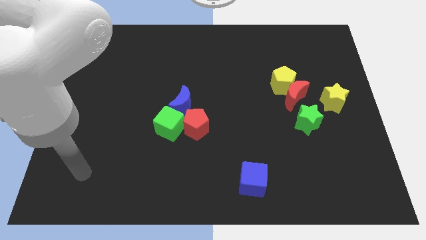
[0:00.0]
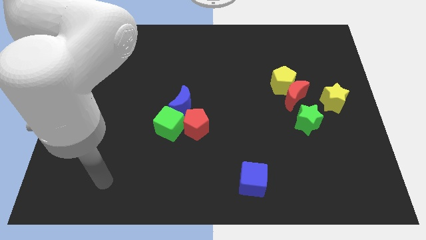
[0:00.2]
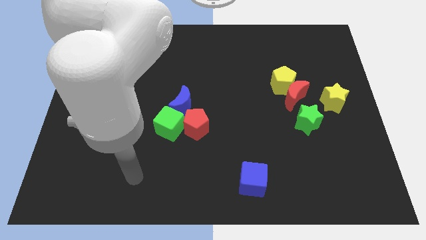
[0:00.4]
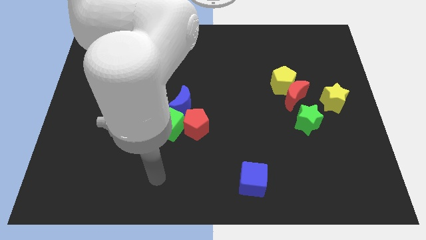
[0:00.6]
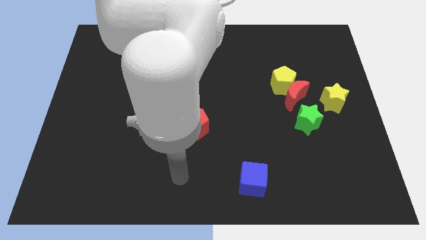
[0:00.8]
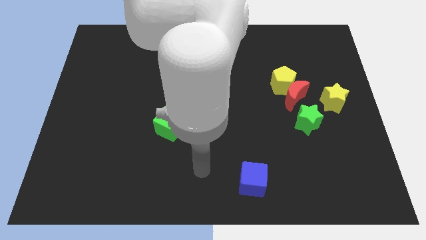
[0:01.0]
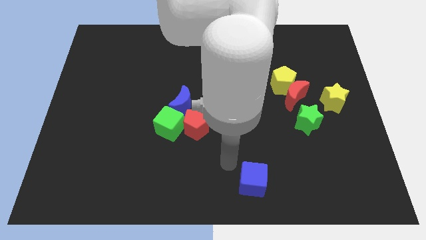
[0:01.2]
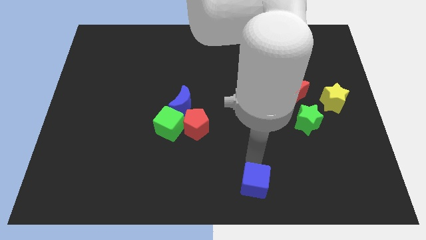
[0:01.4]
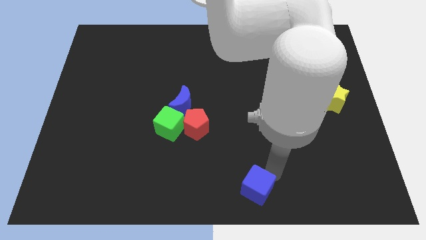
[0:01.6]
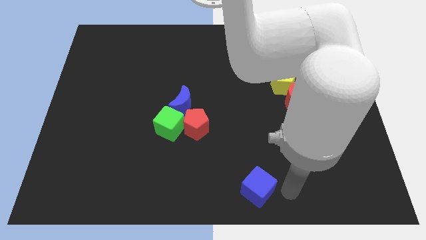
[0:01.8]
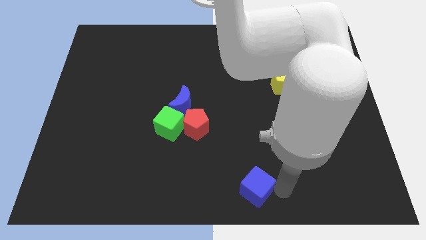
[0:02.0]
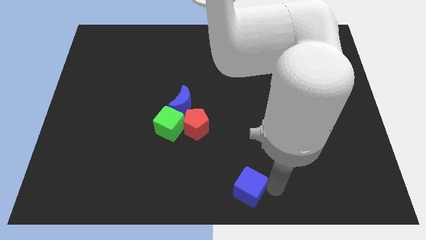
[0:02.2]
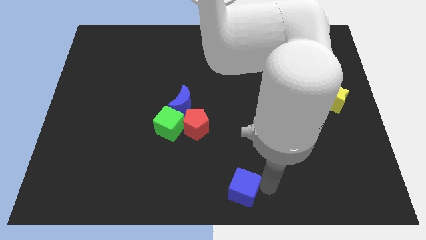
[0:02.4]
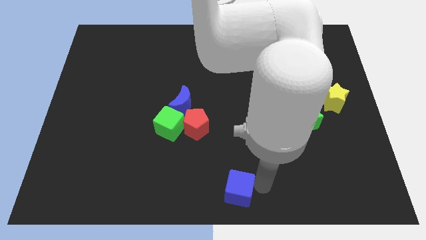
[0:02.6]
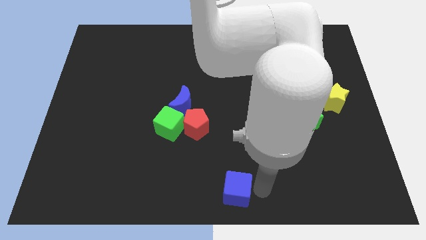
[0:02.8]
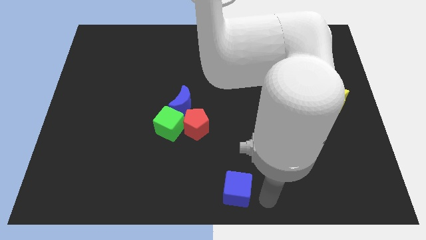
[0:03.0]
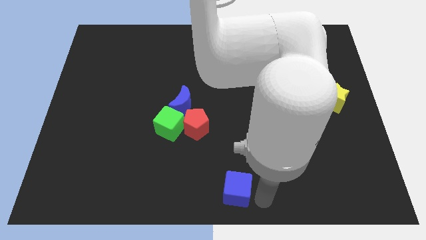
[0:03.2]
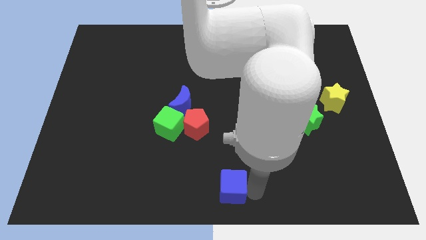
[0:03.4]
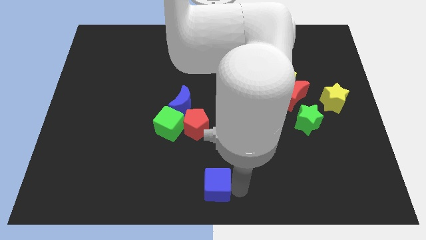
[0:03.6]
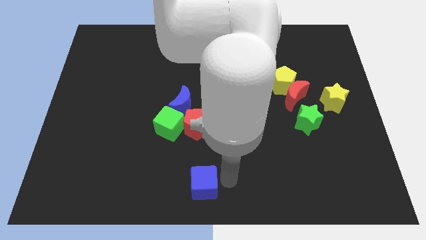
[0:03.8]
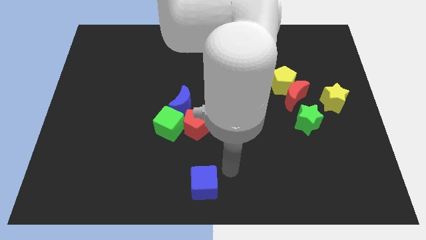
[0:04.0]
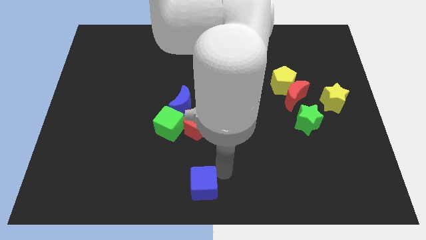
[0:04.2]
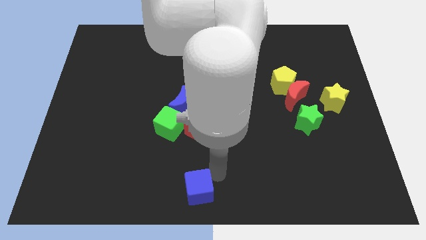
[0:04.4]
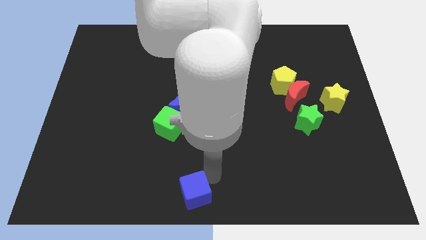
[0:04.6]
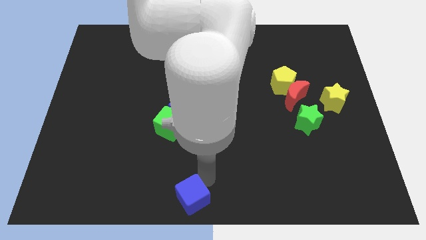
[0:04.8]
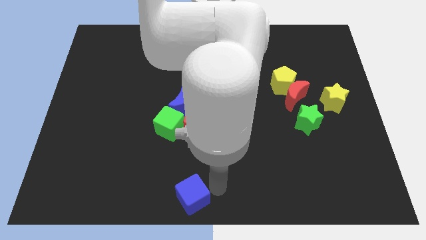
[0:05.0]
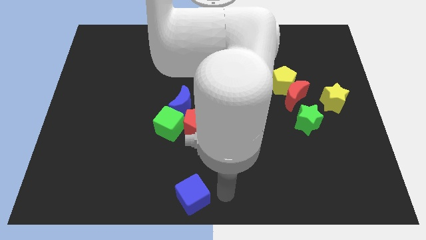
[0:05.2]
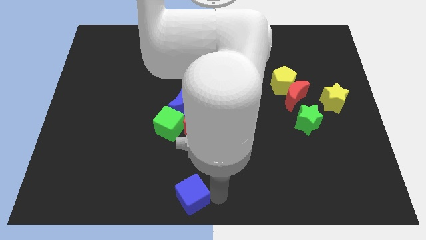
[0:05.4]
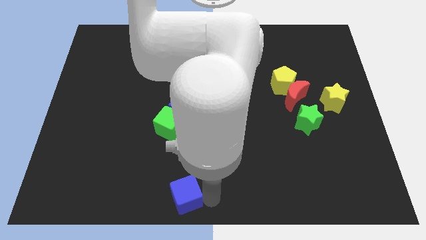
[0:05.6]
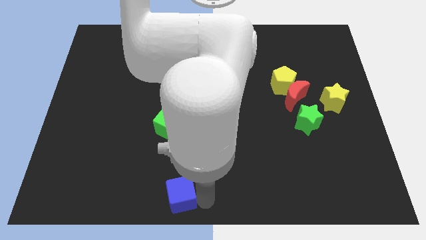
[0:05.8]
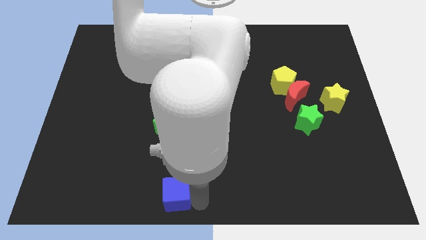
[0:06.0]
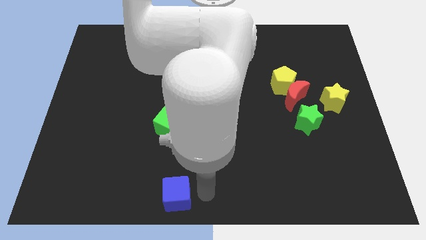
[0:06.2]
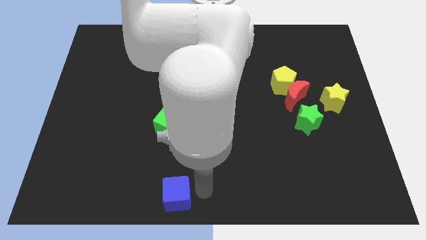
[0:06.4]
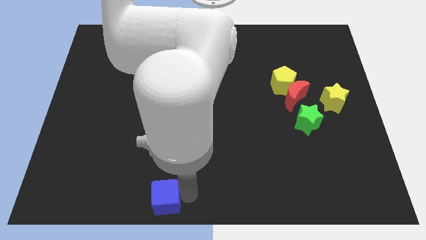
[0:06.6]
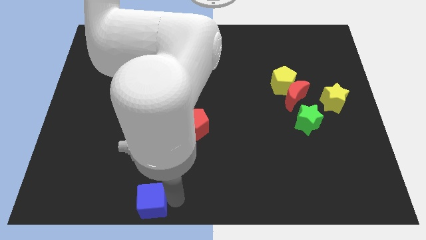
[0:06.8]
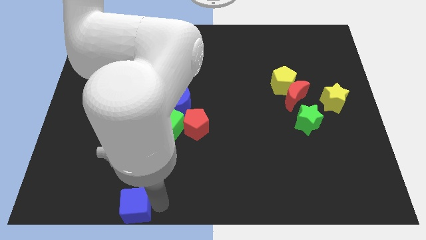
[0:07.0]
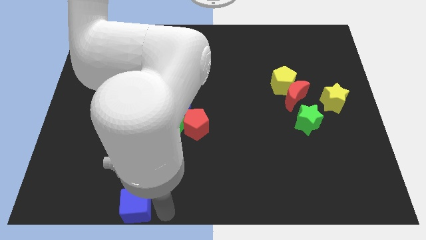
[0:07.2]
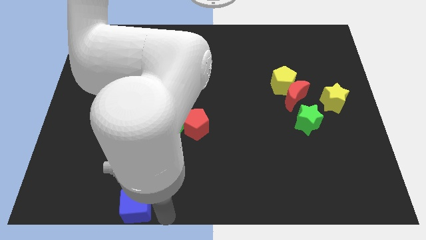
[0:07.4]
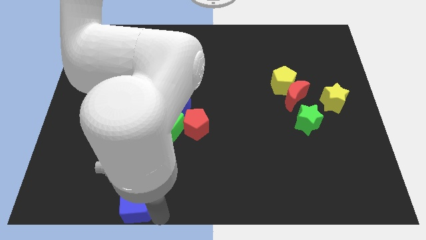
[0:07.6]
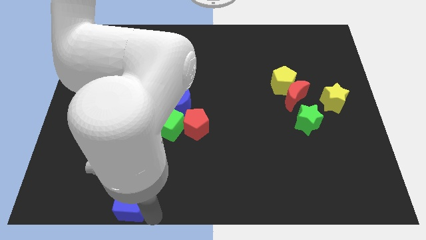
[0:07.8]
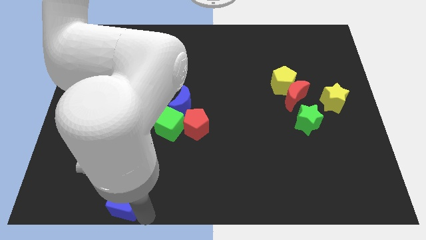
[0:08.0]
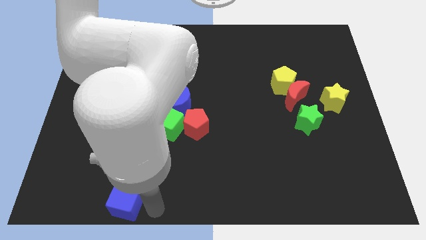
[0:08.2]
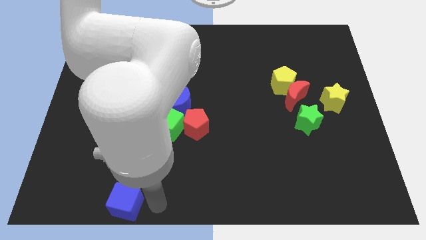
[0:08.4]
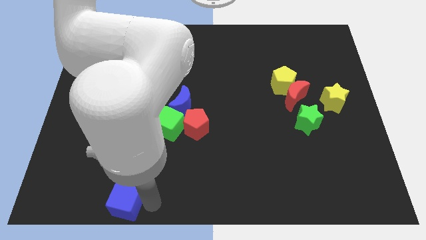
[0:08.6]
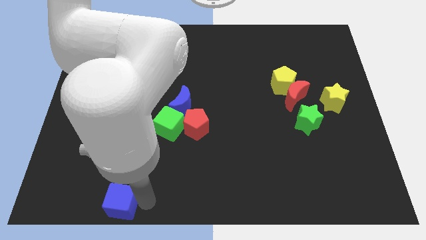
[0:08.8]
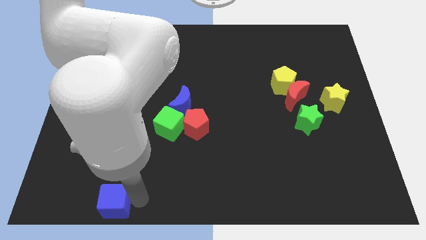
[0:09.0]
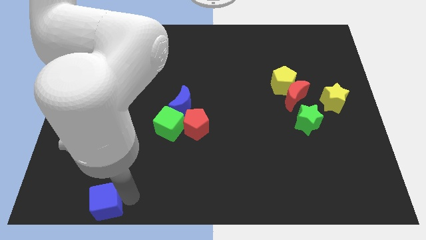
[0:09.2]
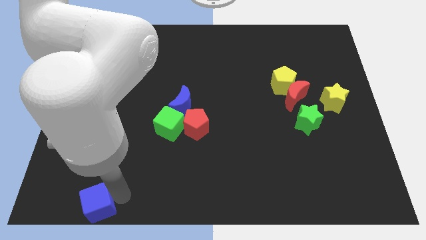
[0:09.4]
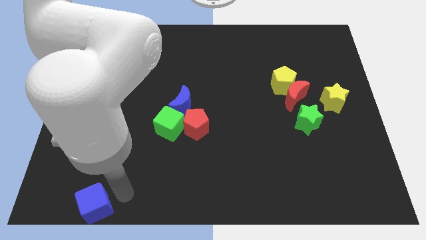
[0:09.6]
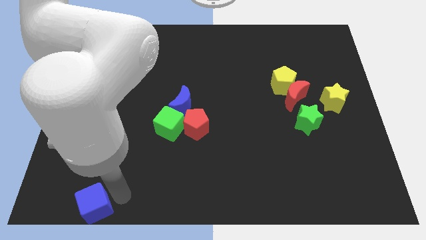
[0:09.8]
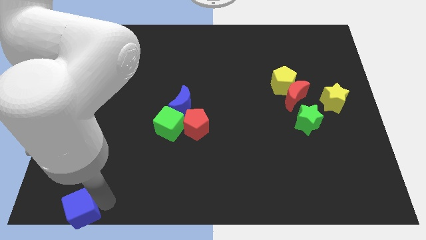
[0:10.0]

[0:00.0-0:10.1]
push the blue cube to the bottom left of the board

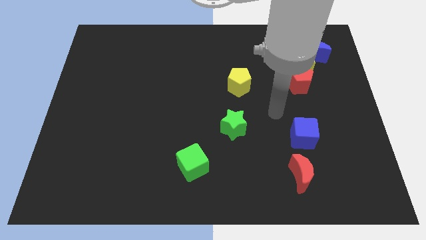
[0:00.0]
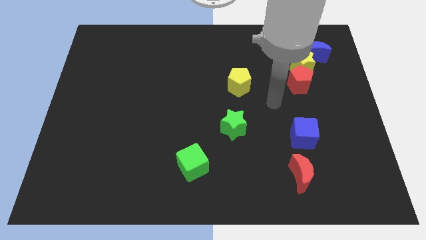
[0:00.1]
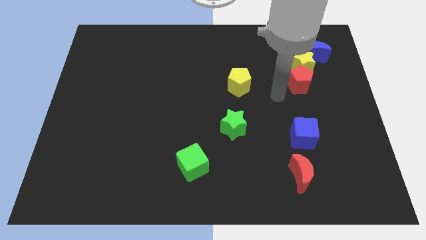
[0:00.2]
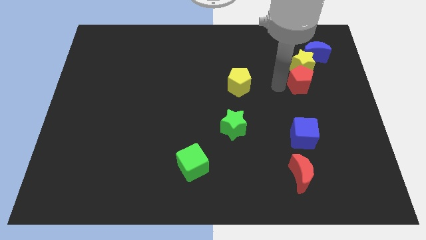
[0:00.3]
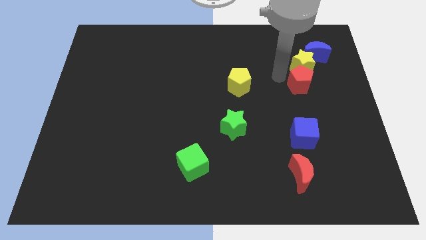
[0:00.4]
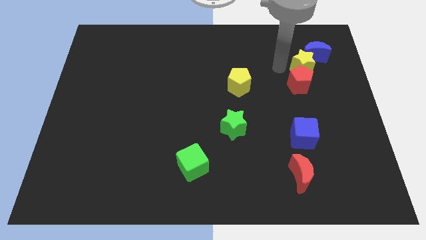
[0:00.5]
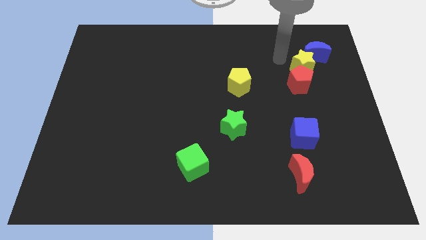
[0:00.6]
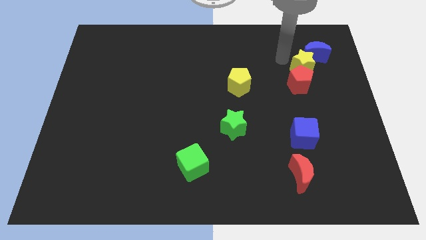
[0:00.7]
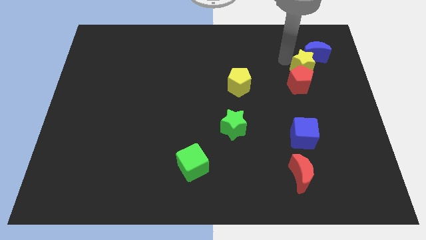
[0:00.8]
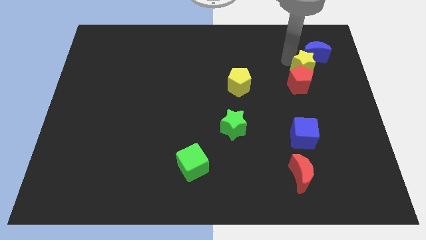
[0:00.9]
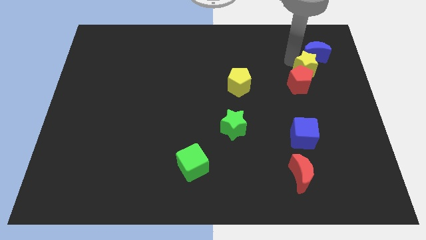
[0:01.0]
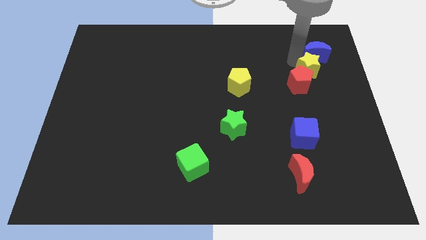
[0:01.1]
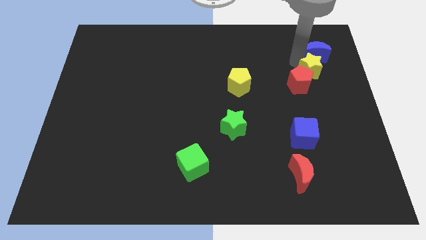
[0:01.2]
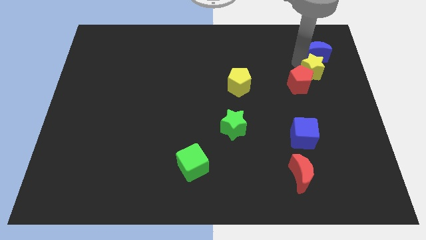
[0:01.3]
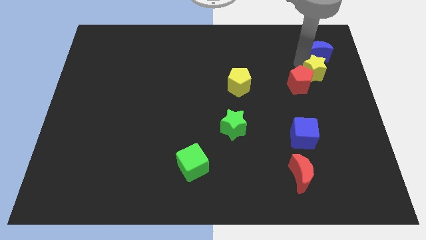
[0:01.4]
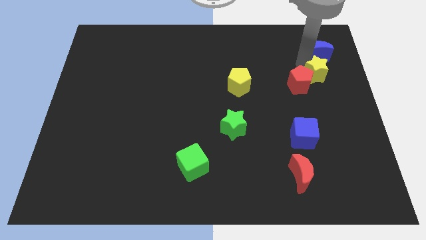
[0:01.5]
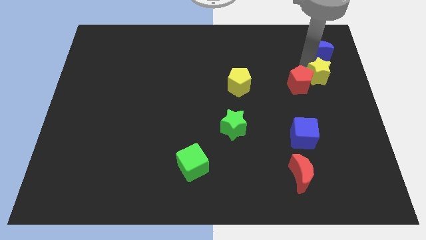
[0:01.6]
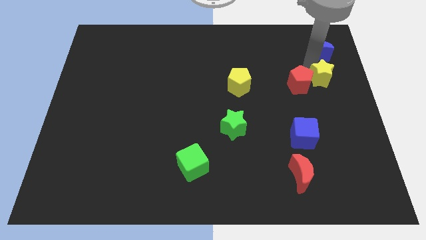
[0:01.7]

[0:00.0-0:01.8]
put the yellow star to the right side
